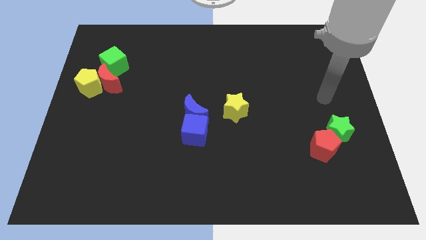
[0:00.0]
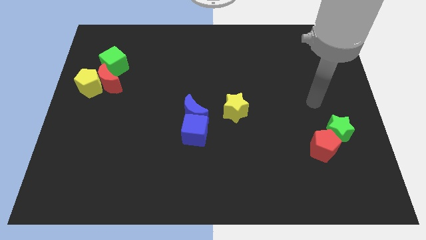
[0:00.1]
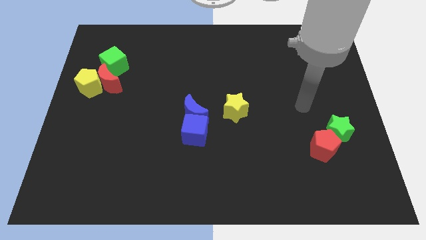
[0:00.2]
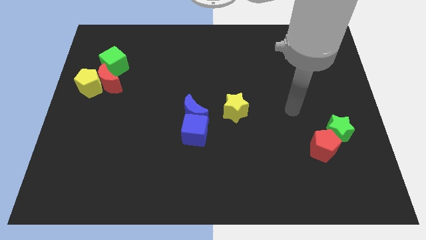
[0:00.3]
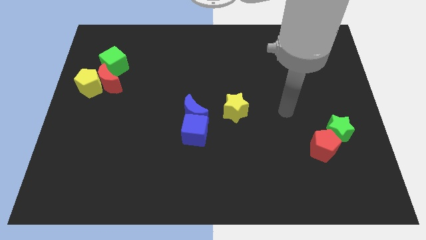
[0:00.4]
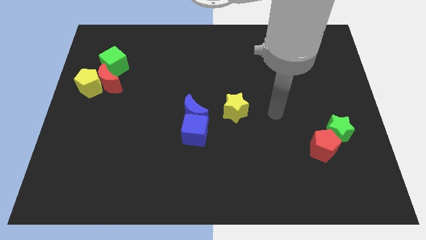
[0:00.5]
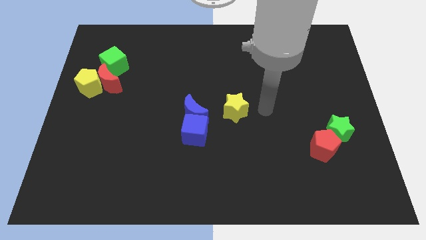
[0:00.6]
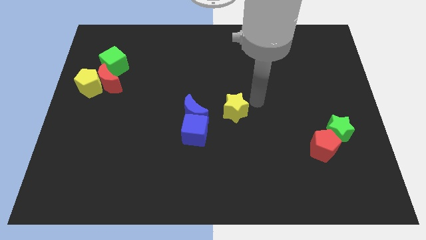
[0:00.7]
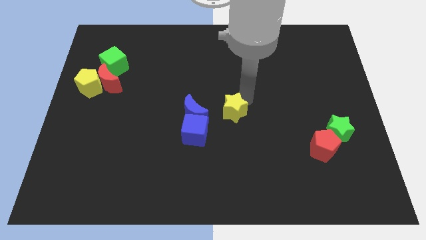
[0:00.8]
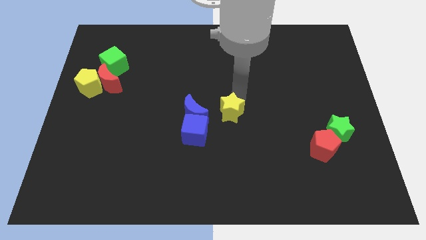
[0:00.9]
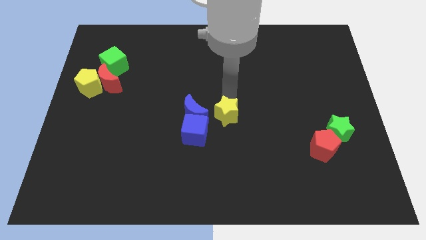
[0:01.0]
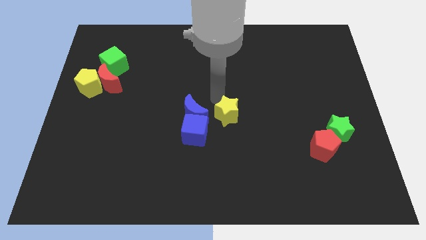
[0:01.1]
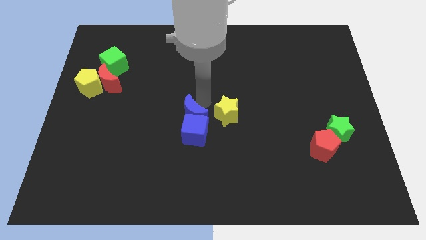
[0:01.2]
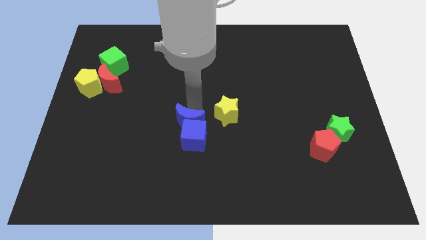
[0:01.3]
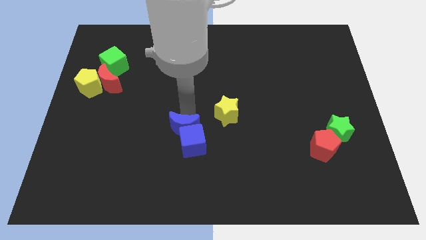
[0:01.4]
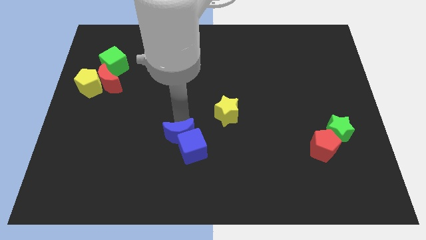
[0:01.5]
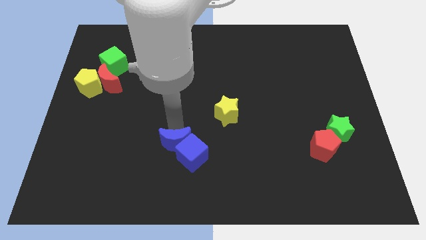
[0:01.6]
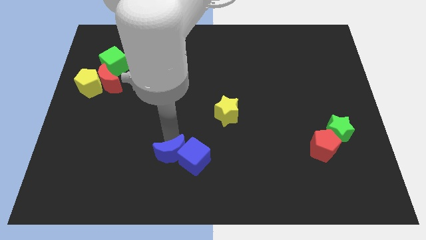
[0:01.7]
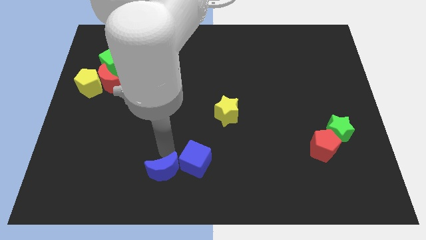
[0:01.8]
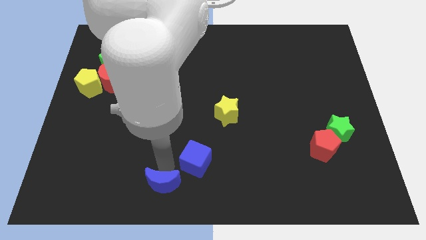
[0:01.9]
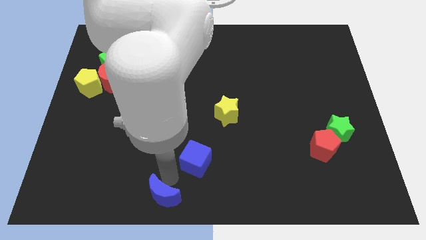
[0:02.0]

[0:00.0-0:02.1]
move the blue cube away from the blue moon

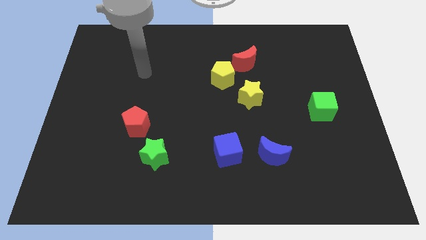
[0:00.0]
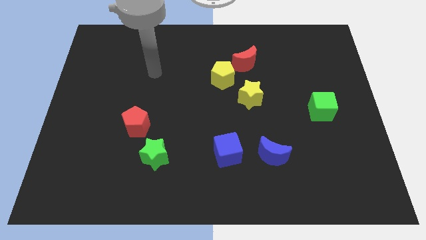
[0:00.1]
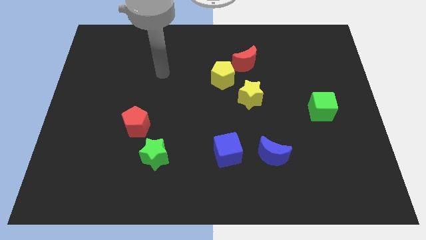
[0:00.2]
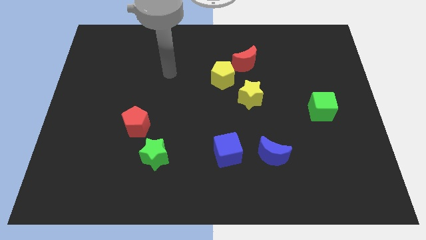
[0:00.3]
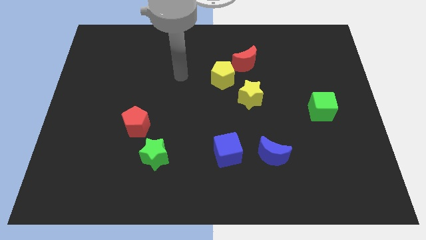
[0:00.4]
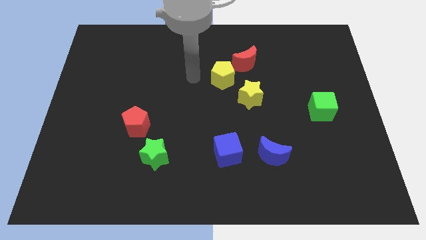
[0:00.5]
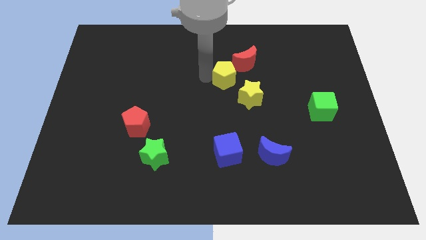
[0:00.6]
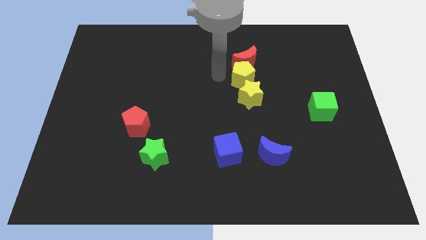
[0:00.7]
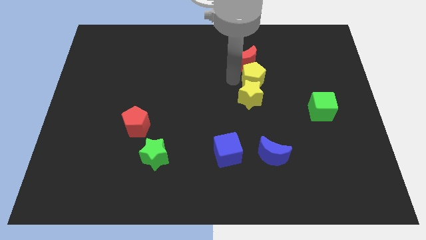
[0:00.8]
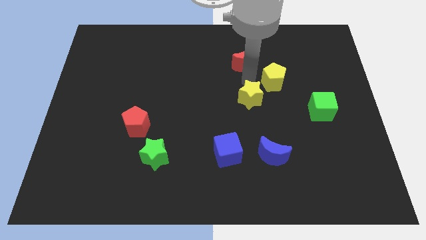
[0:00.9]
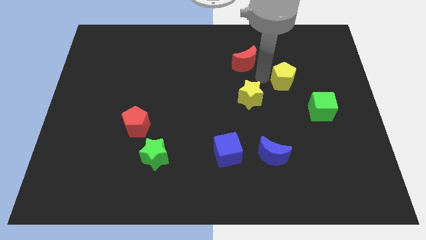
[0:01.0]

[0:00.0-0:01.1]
move the red moon away from the yellow pentagon

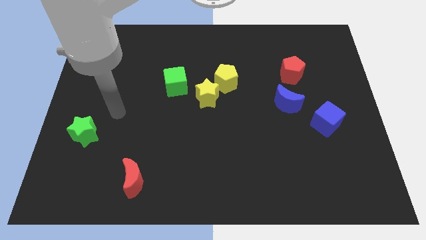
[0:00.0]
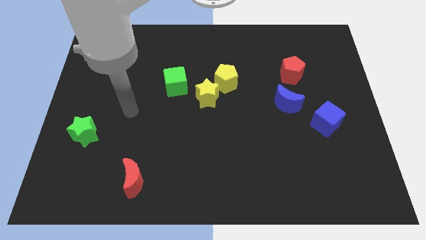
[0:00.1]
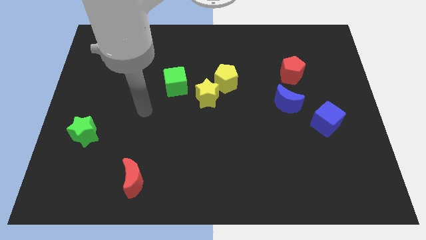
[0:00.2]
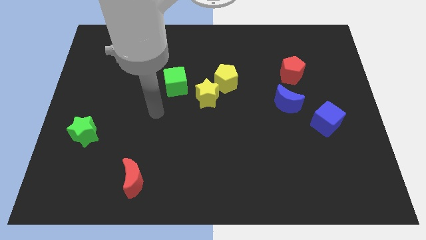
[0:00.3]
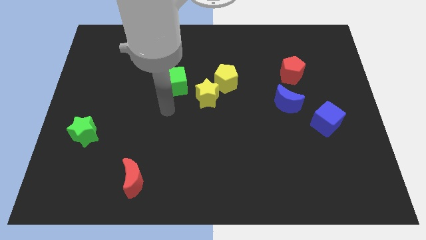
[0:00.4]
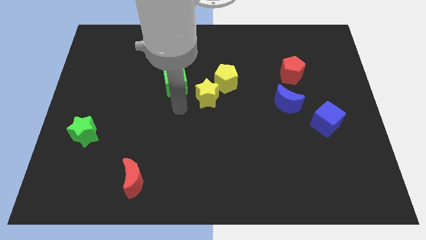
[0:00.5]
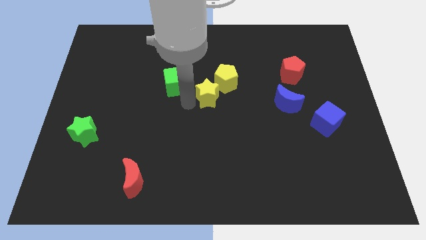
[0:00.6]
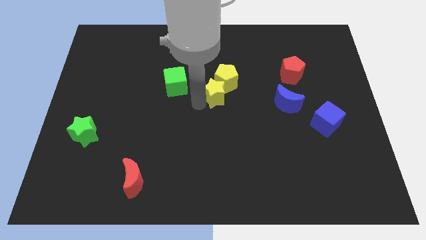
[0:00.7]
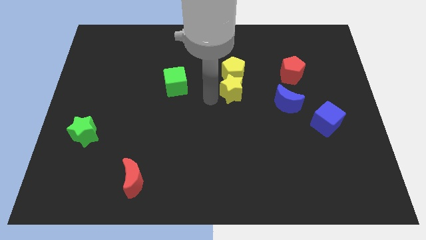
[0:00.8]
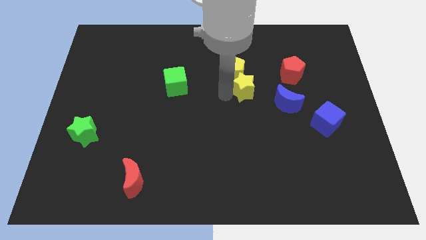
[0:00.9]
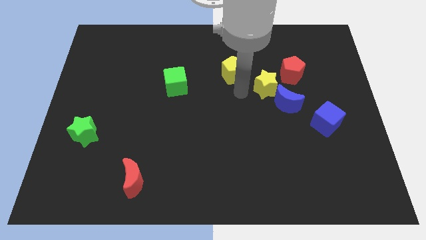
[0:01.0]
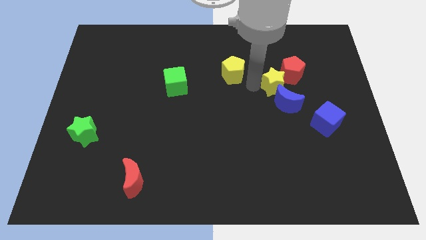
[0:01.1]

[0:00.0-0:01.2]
separate the yellow pentagon from the yellow star

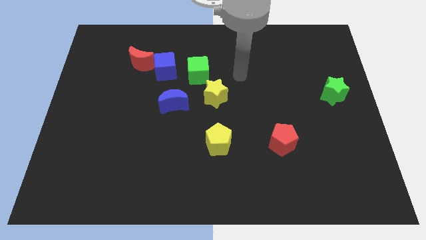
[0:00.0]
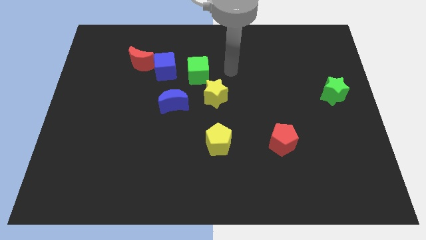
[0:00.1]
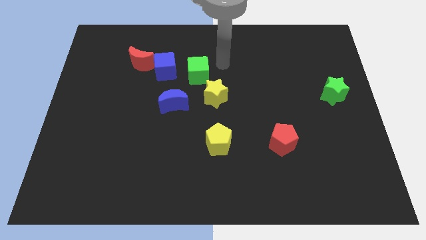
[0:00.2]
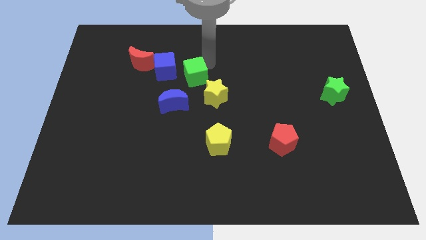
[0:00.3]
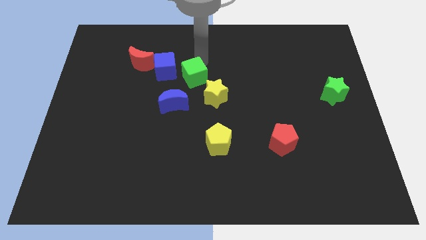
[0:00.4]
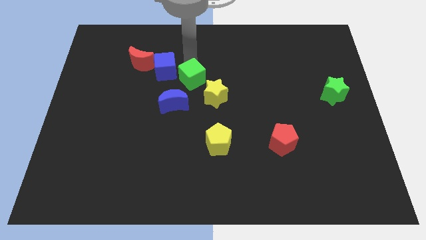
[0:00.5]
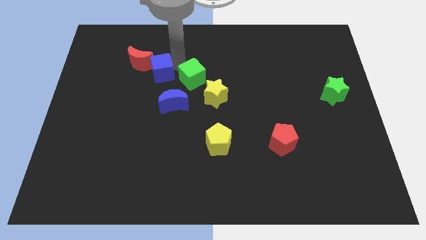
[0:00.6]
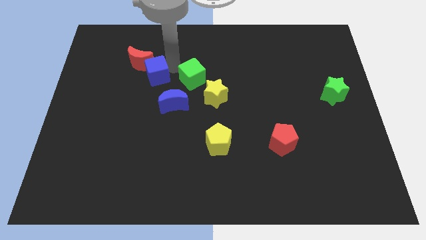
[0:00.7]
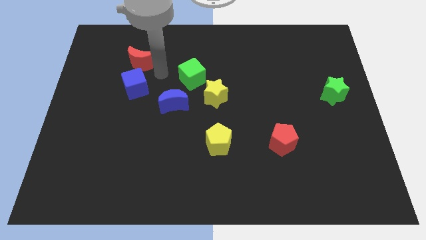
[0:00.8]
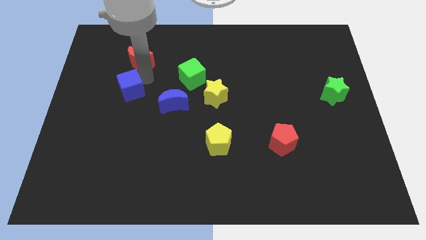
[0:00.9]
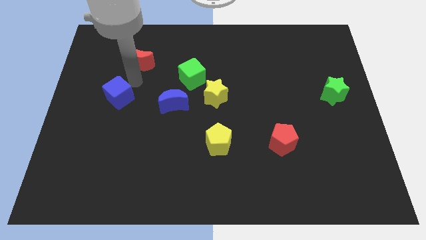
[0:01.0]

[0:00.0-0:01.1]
separate the red moon from the blue cube

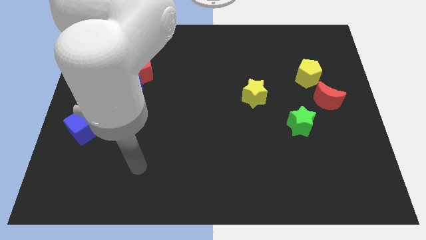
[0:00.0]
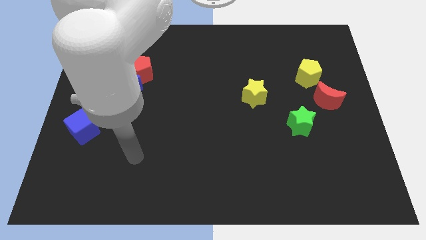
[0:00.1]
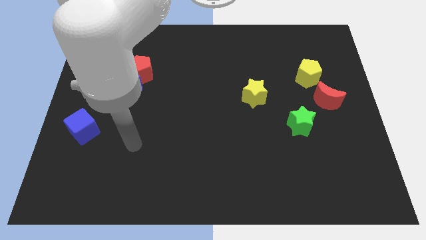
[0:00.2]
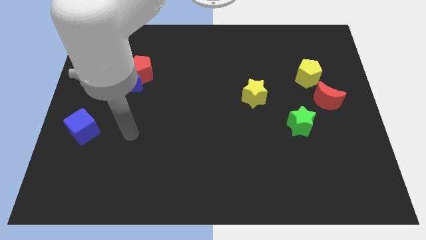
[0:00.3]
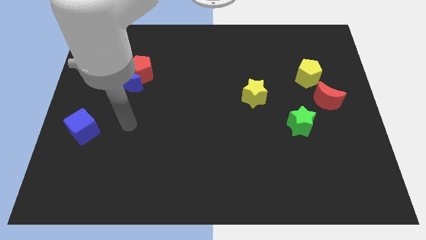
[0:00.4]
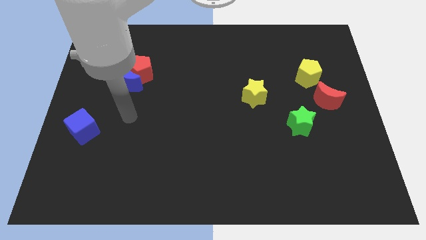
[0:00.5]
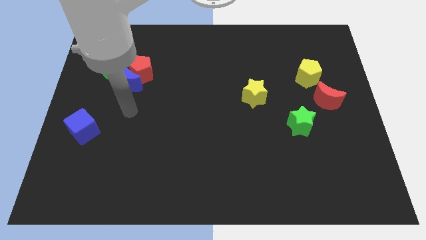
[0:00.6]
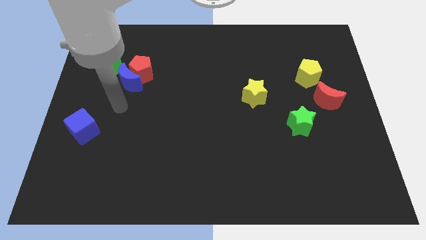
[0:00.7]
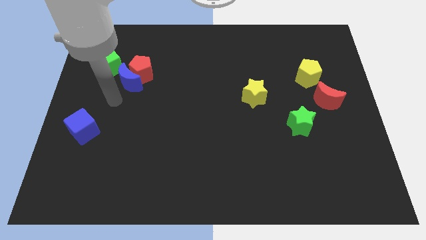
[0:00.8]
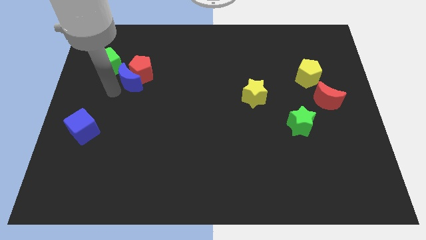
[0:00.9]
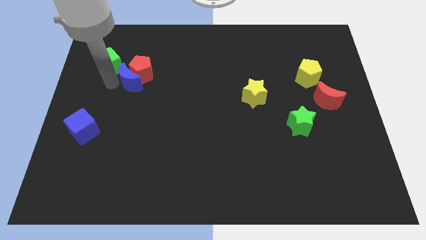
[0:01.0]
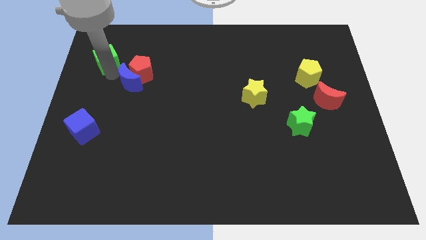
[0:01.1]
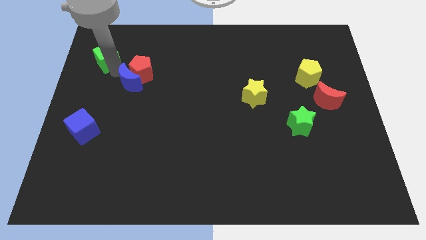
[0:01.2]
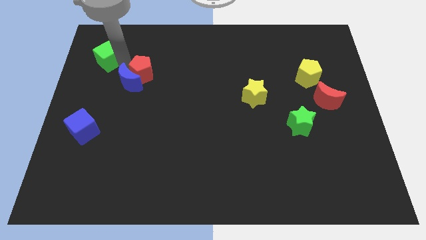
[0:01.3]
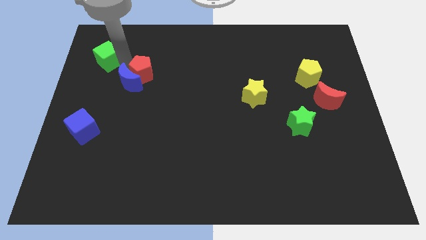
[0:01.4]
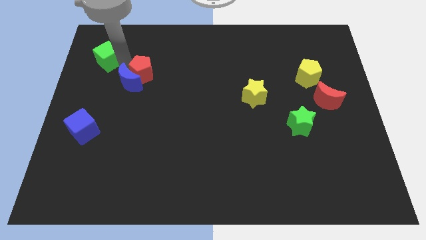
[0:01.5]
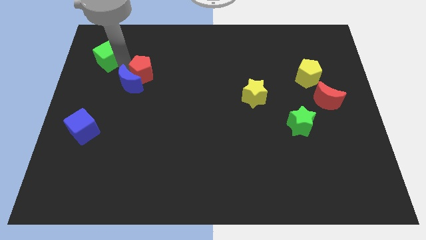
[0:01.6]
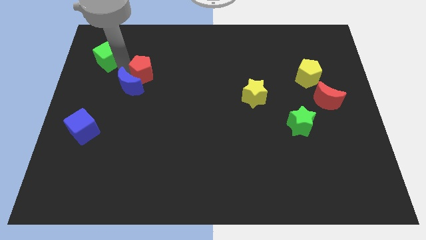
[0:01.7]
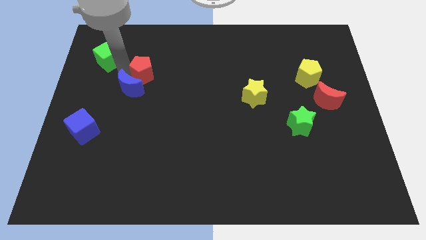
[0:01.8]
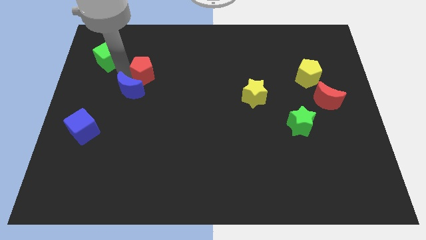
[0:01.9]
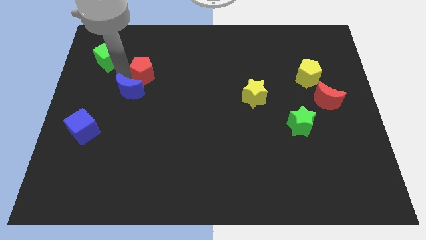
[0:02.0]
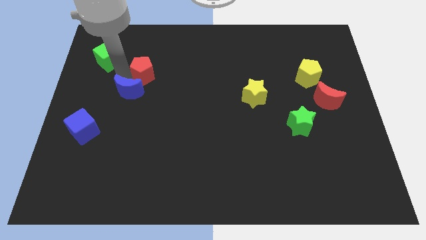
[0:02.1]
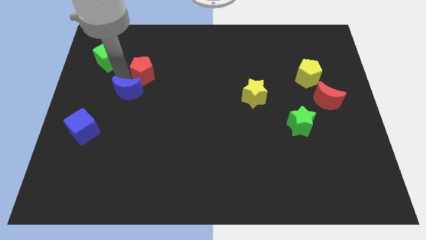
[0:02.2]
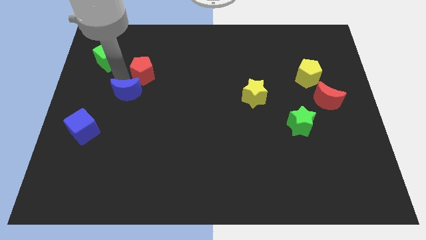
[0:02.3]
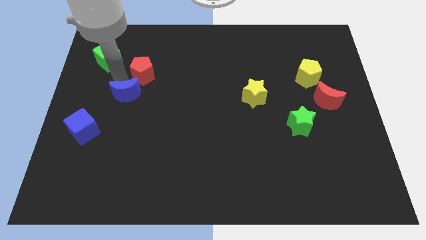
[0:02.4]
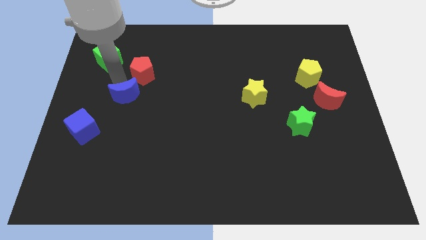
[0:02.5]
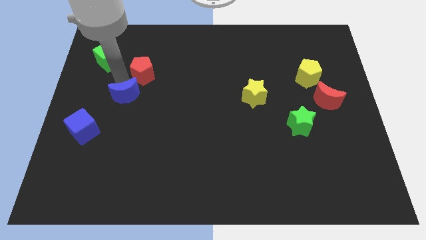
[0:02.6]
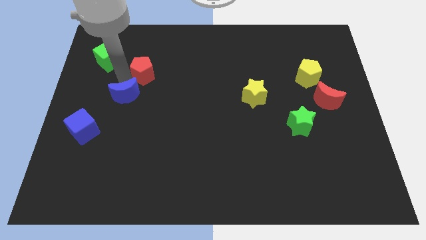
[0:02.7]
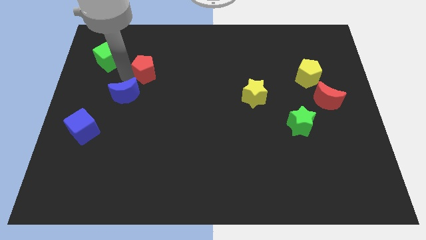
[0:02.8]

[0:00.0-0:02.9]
pull the blue moon apart from the red pentagon and green cube

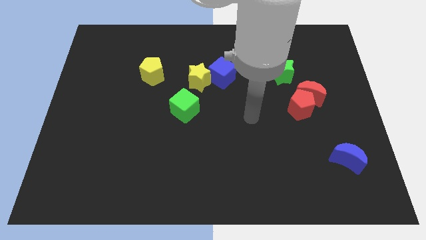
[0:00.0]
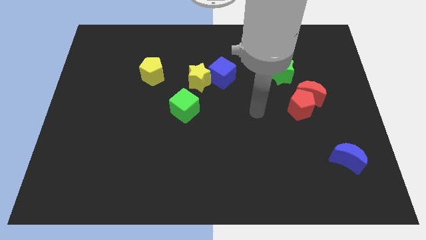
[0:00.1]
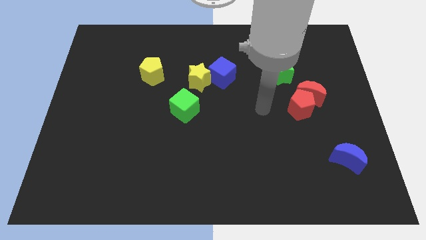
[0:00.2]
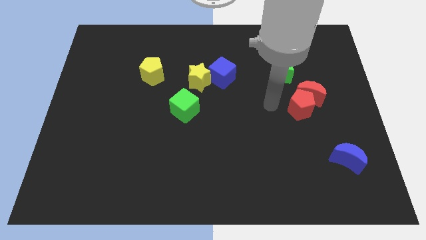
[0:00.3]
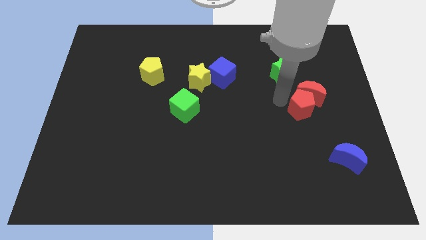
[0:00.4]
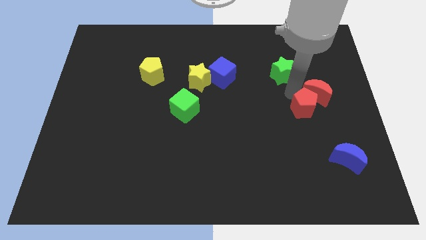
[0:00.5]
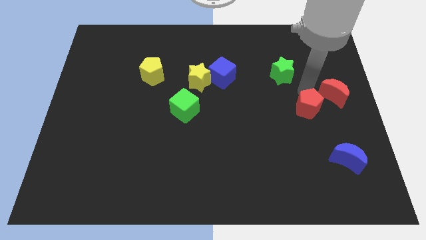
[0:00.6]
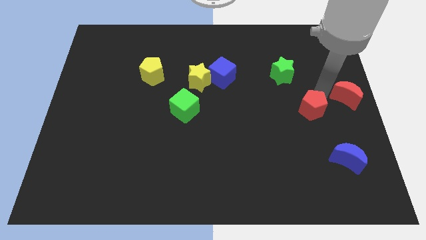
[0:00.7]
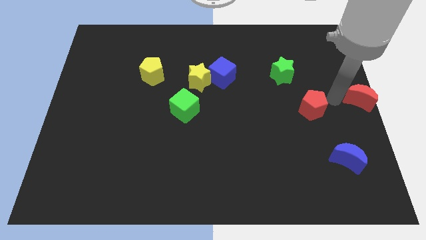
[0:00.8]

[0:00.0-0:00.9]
separate the red pentagon from the red moon
